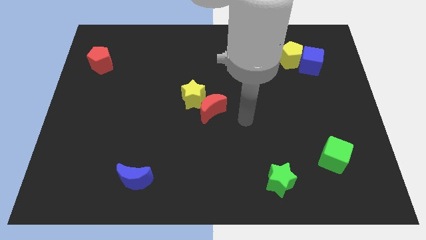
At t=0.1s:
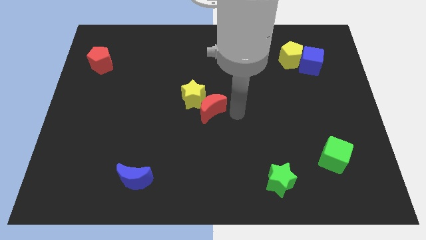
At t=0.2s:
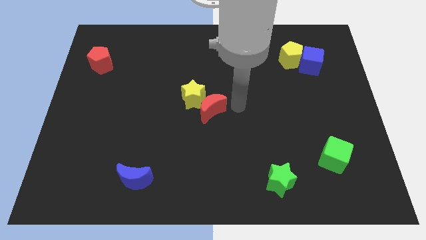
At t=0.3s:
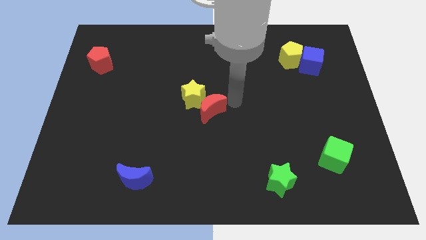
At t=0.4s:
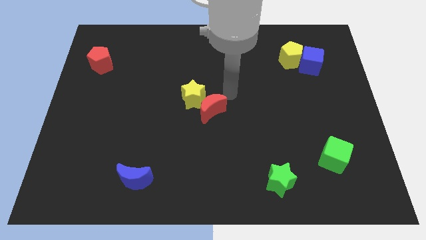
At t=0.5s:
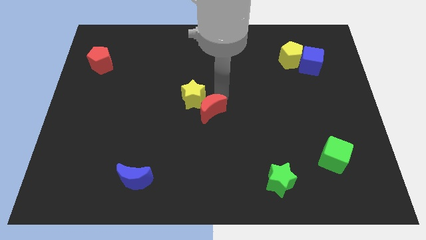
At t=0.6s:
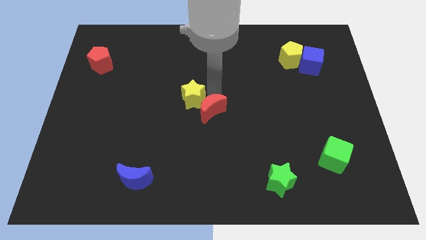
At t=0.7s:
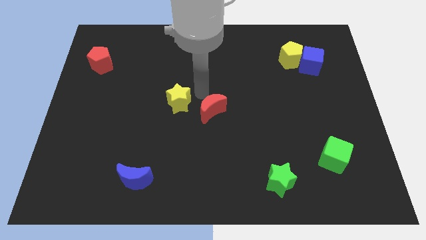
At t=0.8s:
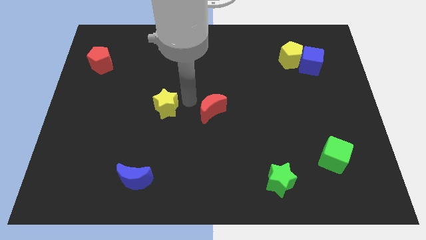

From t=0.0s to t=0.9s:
move the red moon away from the yellow star

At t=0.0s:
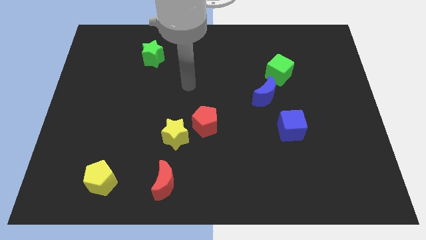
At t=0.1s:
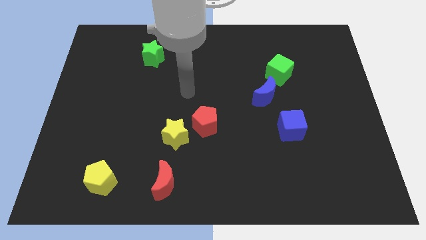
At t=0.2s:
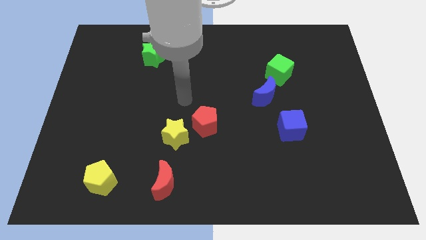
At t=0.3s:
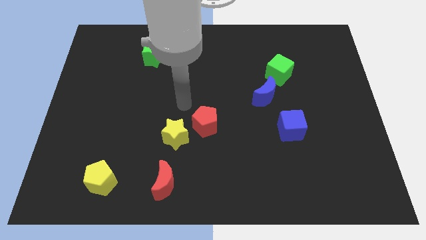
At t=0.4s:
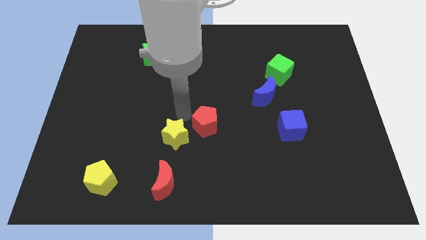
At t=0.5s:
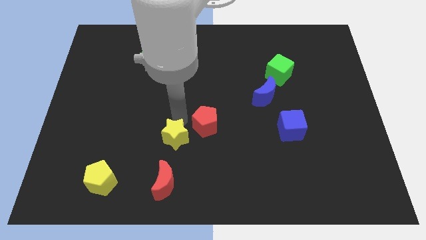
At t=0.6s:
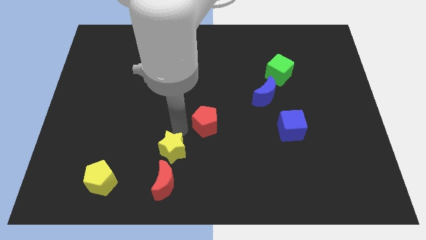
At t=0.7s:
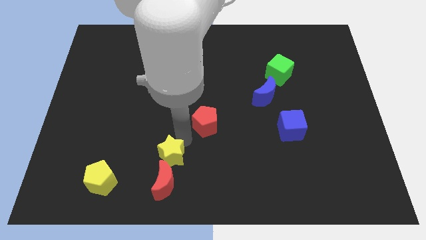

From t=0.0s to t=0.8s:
separate the red pentagon from the yellow star

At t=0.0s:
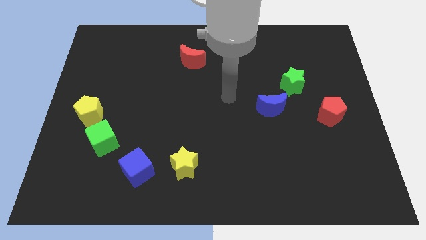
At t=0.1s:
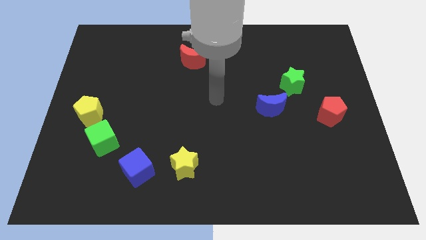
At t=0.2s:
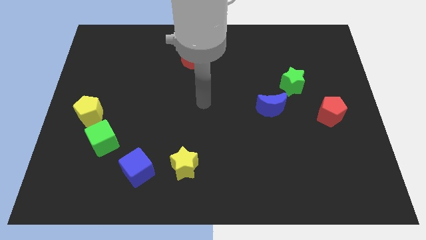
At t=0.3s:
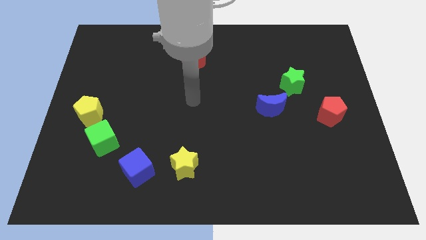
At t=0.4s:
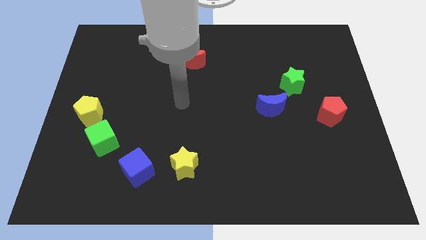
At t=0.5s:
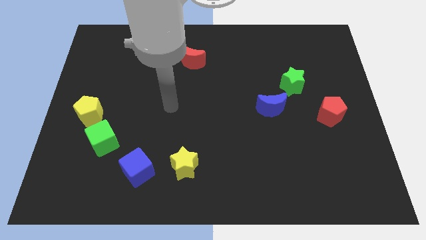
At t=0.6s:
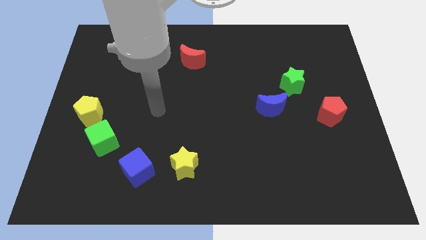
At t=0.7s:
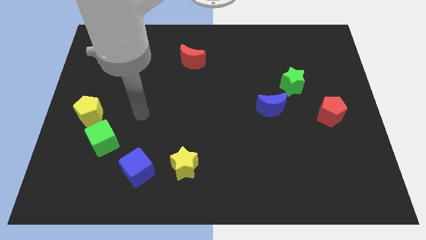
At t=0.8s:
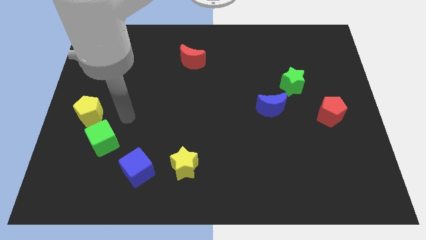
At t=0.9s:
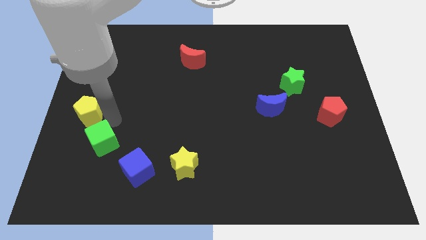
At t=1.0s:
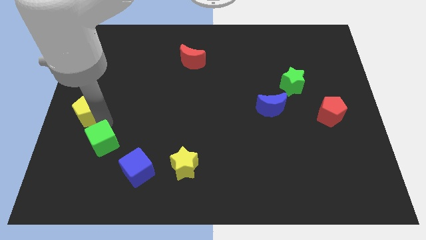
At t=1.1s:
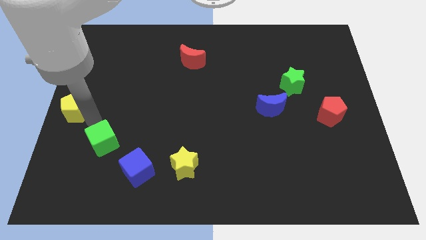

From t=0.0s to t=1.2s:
separate the green cube from the yellow pentagon

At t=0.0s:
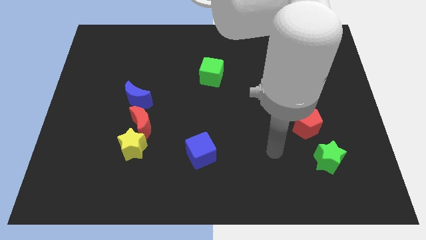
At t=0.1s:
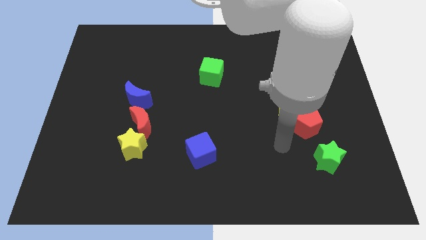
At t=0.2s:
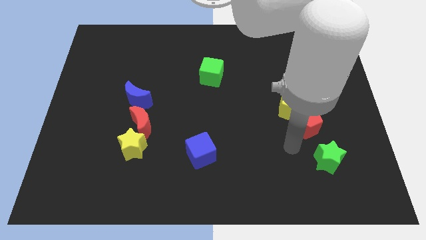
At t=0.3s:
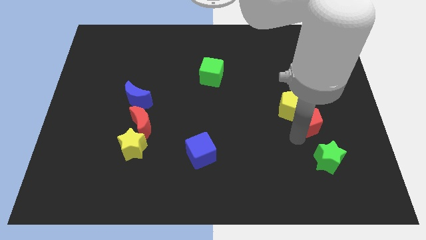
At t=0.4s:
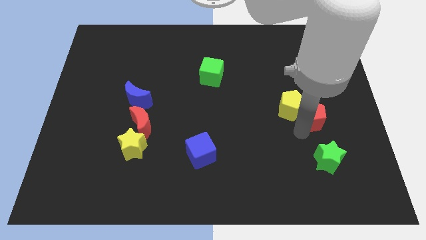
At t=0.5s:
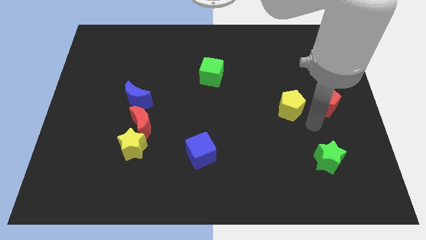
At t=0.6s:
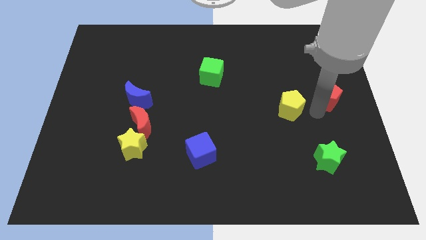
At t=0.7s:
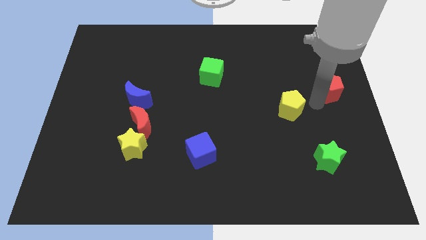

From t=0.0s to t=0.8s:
separate the yellow pentagon from the red pentagon

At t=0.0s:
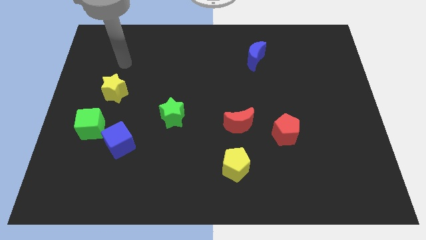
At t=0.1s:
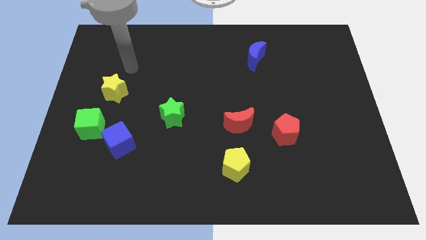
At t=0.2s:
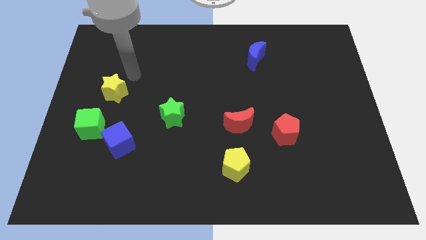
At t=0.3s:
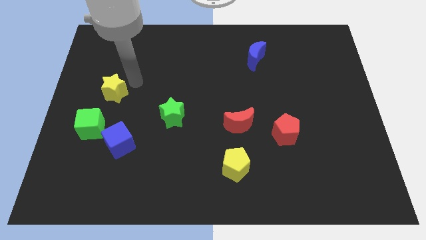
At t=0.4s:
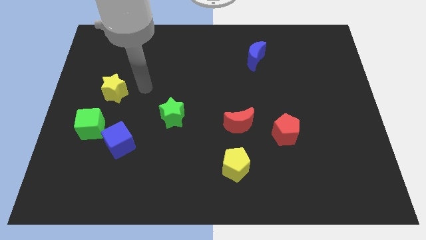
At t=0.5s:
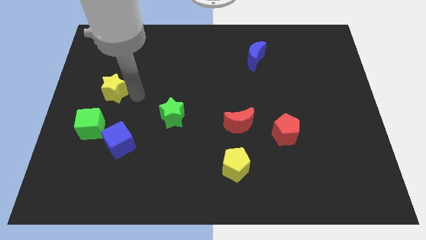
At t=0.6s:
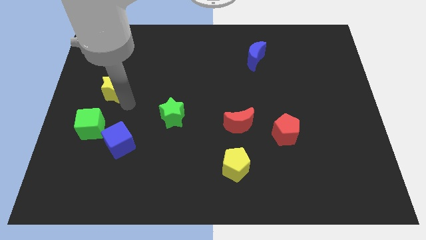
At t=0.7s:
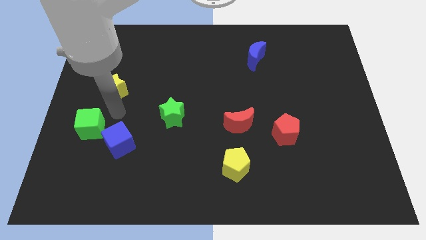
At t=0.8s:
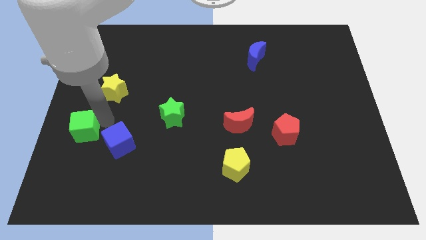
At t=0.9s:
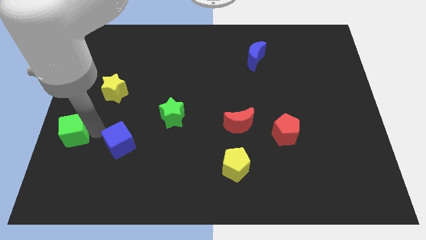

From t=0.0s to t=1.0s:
pull the blue cube apart from the green cube

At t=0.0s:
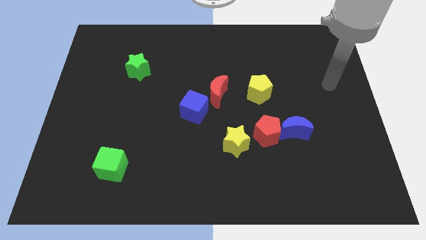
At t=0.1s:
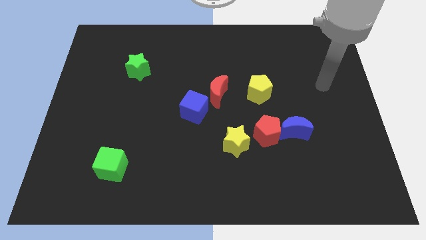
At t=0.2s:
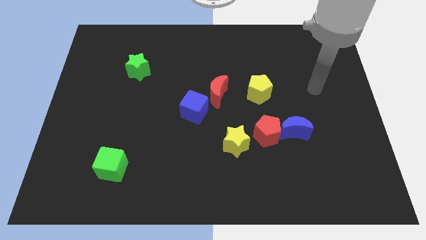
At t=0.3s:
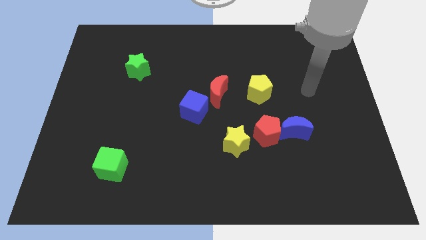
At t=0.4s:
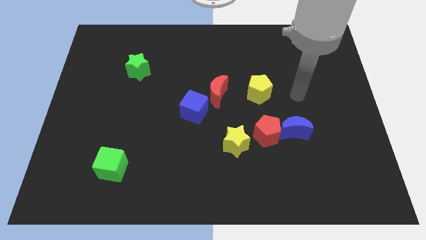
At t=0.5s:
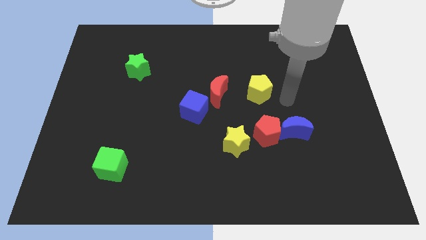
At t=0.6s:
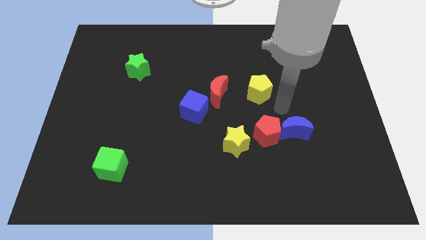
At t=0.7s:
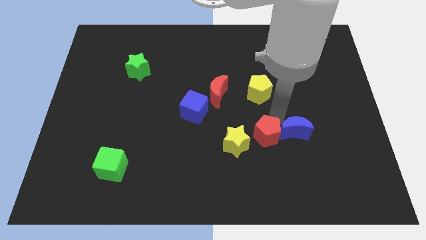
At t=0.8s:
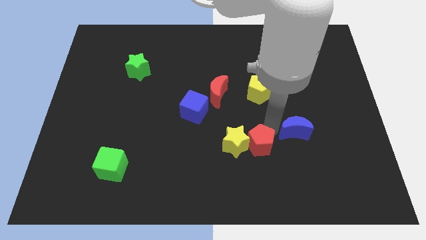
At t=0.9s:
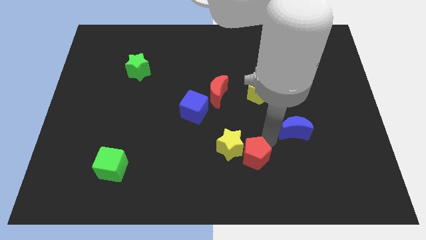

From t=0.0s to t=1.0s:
move the blue moon away from the red pentagon

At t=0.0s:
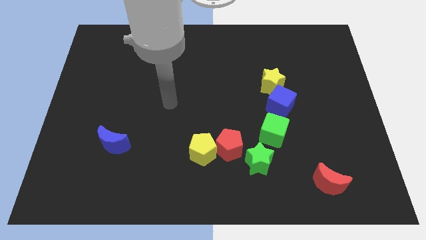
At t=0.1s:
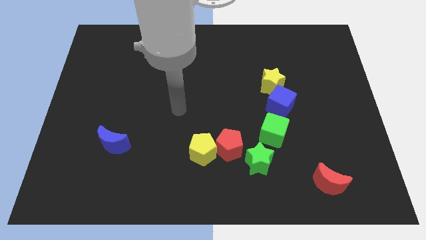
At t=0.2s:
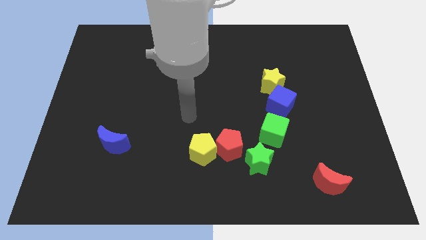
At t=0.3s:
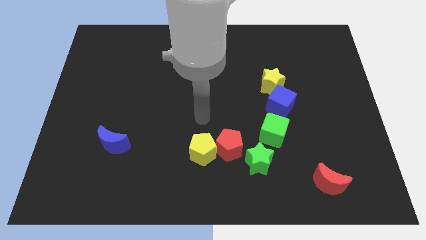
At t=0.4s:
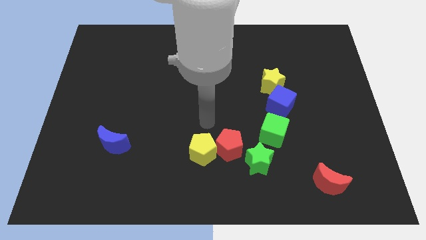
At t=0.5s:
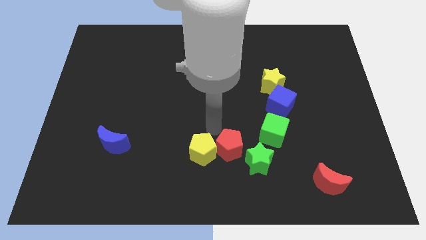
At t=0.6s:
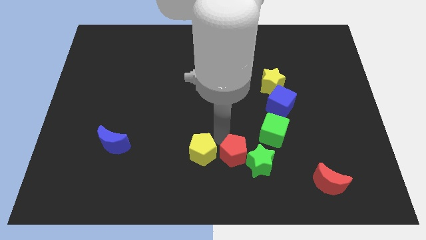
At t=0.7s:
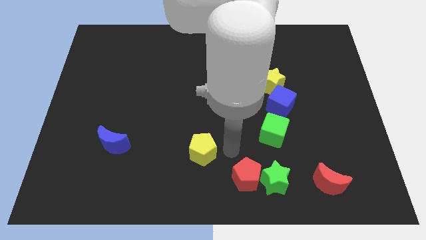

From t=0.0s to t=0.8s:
pull the yellow pentagon apart from the red pentagon

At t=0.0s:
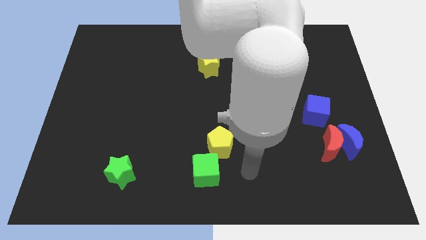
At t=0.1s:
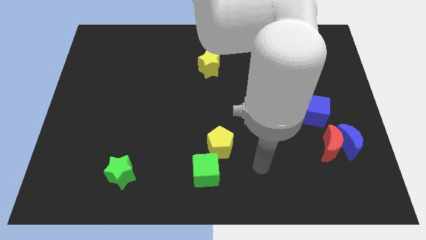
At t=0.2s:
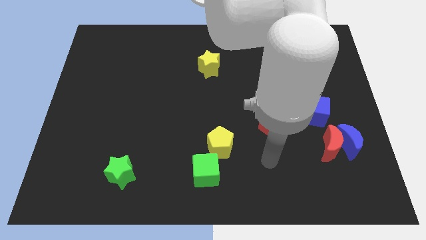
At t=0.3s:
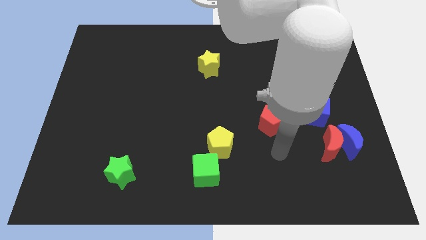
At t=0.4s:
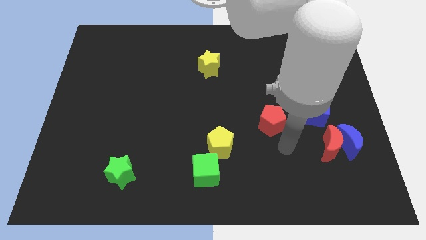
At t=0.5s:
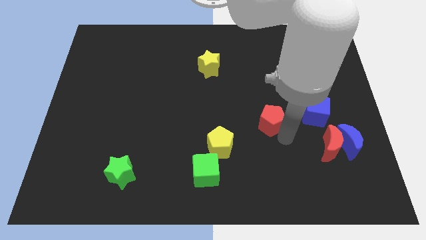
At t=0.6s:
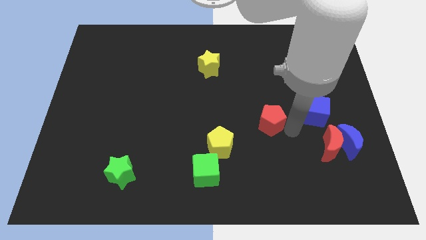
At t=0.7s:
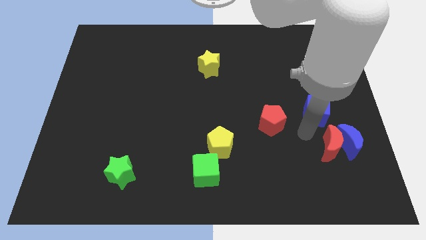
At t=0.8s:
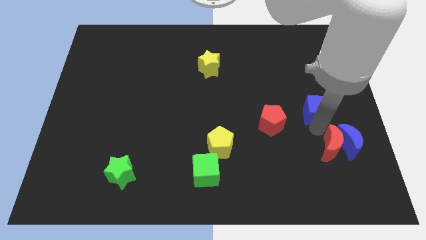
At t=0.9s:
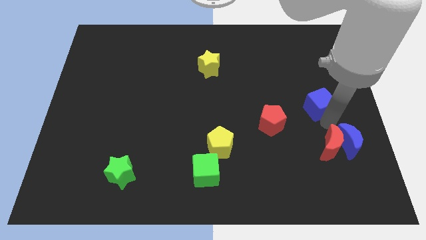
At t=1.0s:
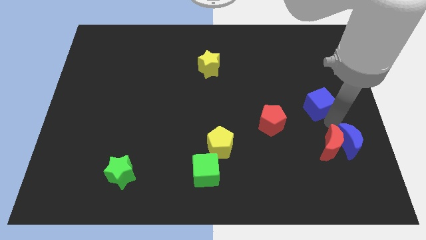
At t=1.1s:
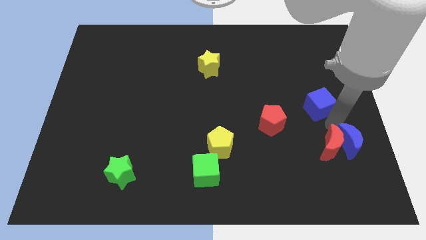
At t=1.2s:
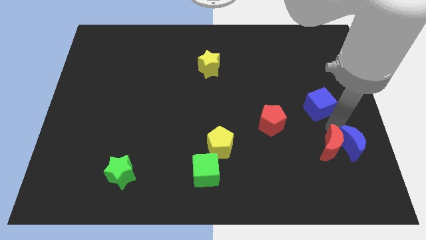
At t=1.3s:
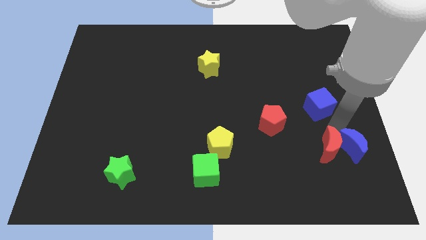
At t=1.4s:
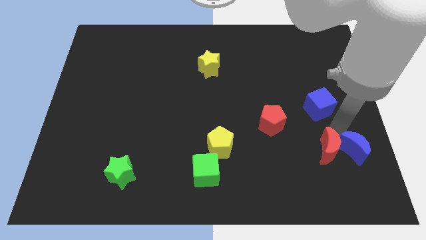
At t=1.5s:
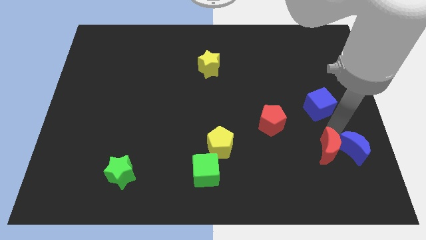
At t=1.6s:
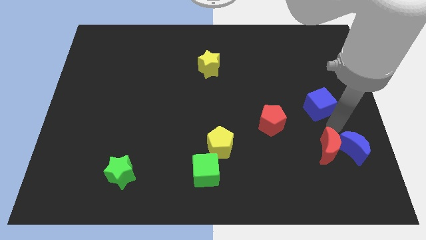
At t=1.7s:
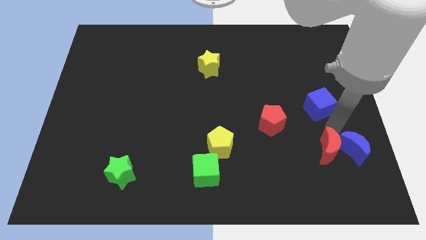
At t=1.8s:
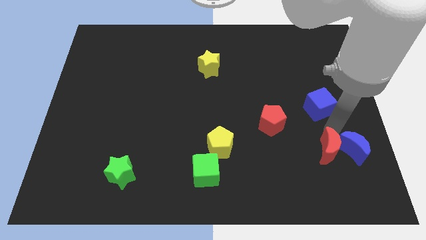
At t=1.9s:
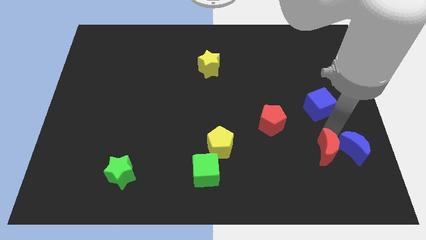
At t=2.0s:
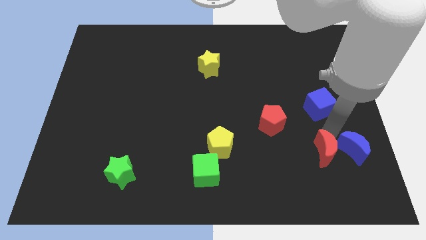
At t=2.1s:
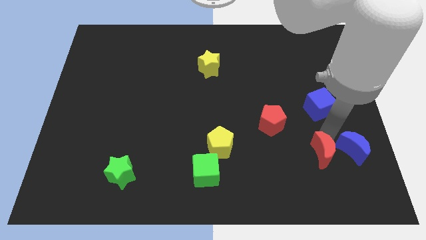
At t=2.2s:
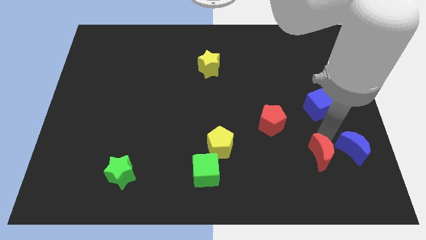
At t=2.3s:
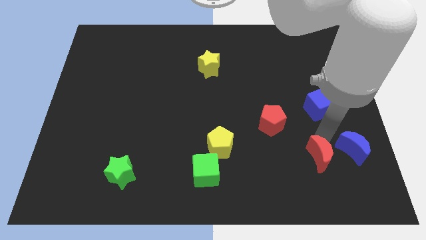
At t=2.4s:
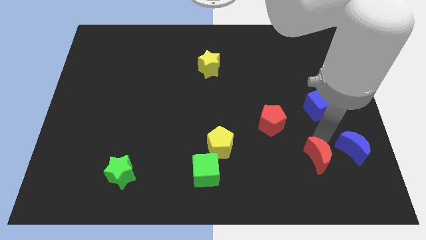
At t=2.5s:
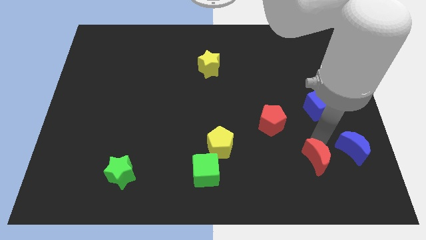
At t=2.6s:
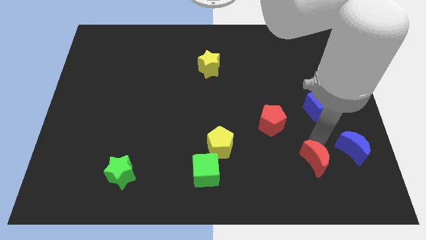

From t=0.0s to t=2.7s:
move the red moon away from the blue moon and blue cube
